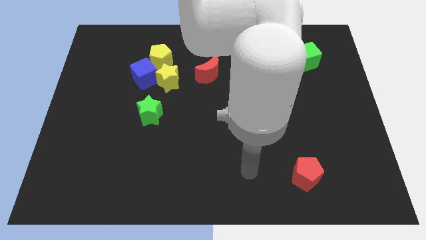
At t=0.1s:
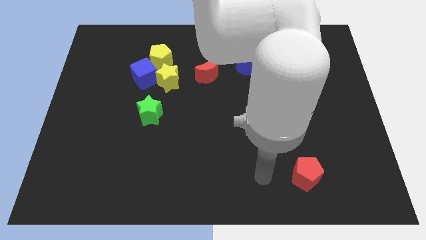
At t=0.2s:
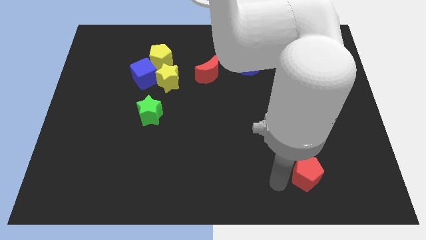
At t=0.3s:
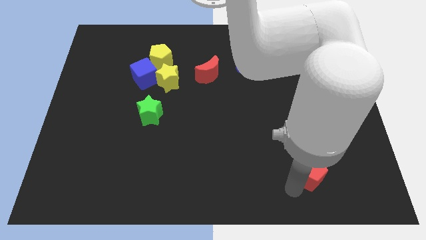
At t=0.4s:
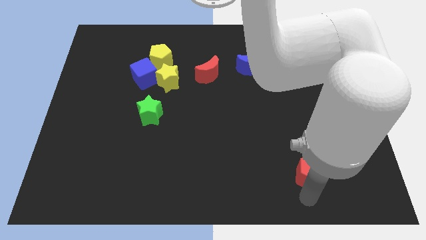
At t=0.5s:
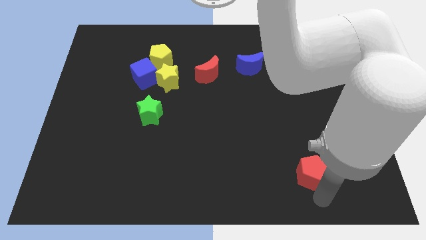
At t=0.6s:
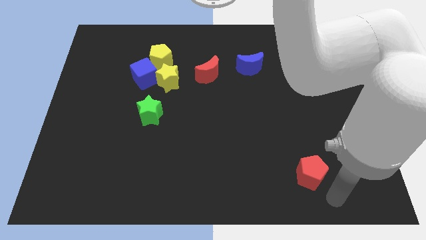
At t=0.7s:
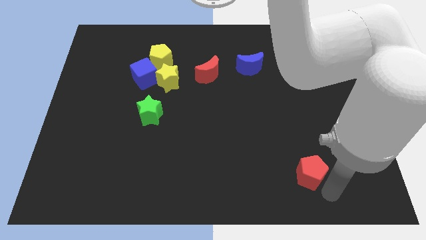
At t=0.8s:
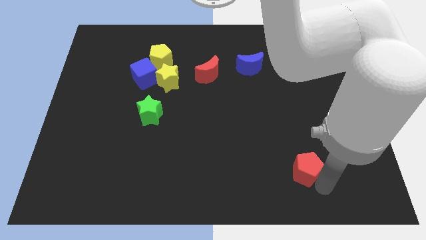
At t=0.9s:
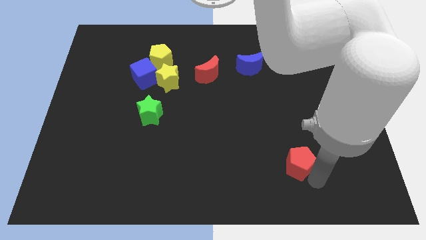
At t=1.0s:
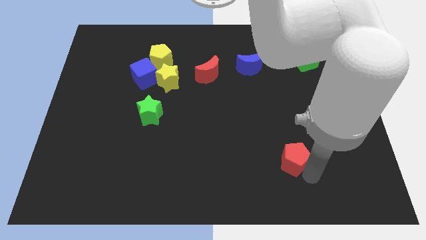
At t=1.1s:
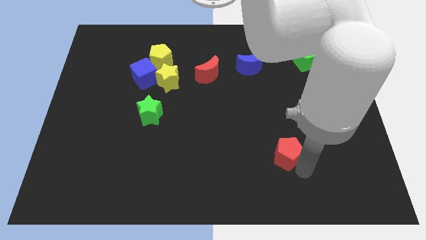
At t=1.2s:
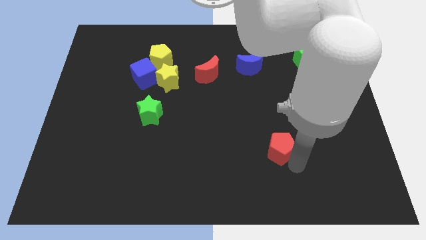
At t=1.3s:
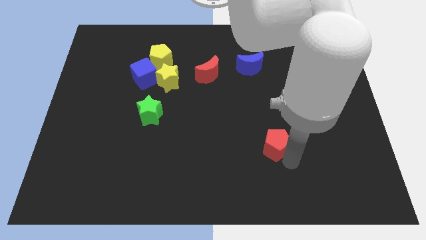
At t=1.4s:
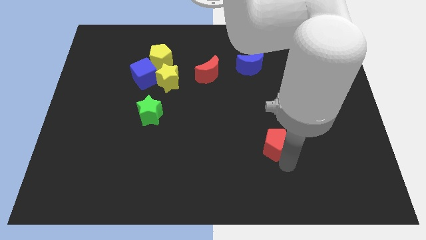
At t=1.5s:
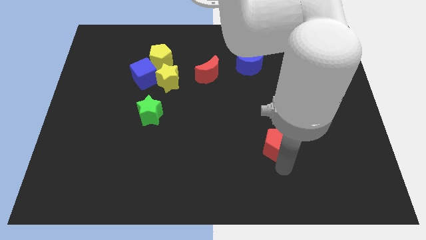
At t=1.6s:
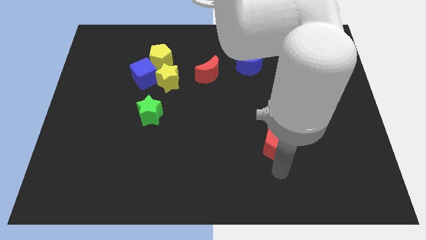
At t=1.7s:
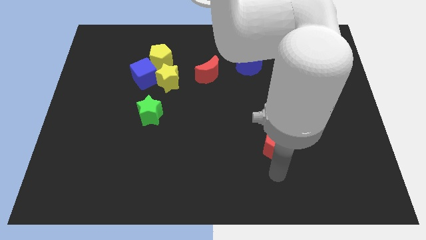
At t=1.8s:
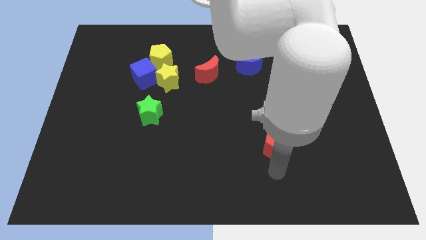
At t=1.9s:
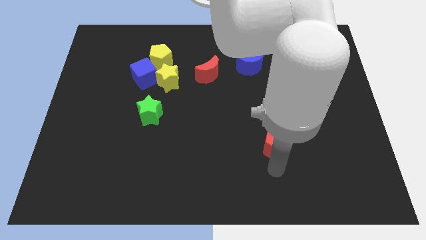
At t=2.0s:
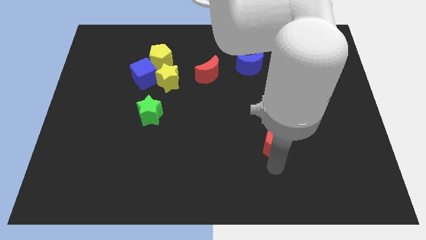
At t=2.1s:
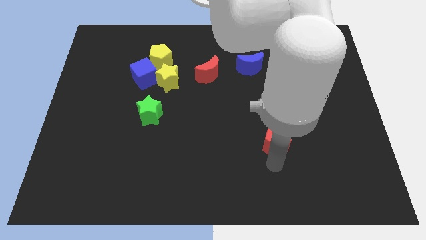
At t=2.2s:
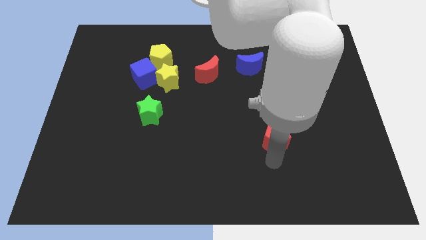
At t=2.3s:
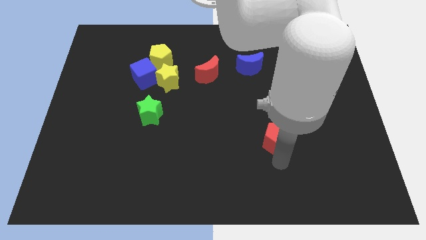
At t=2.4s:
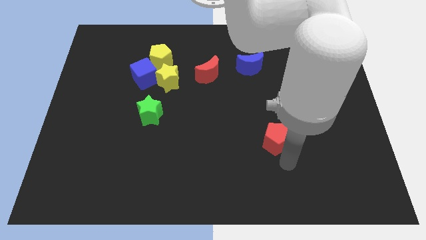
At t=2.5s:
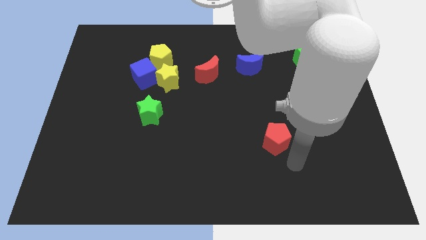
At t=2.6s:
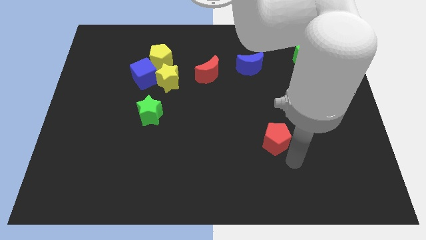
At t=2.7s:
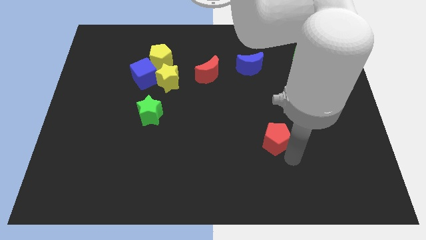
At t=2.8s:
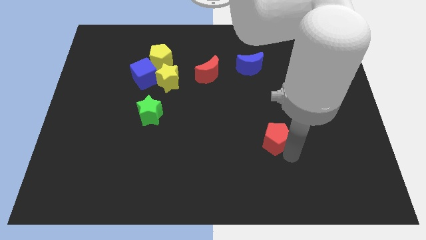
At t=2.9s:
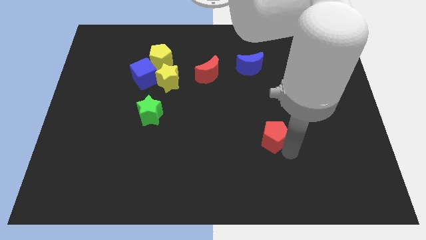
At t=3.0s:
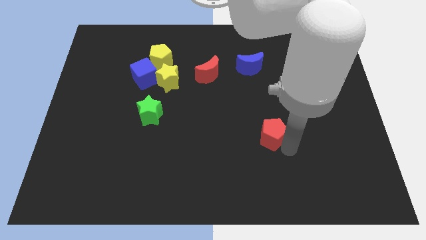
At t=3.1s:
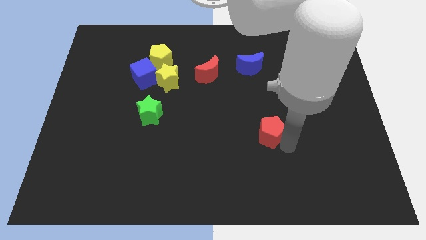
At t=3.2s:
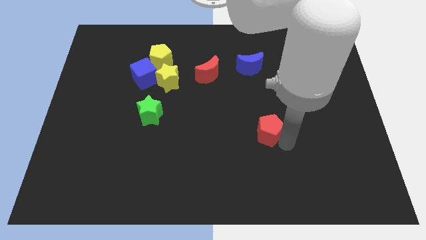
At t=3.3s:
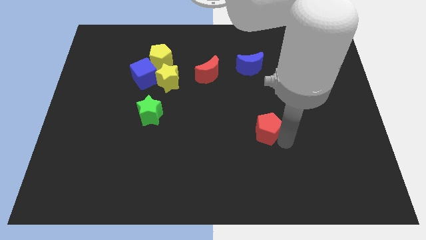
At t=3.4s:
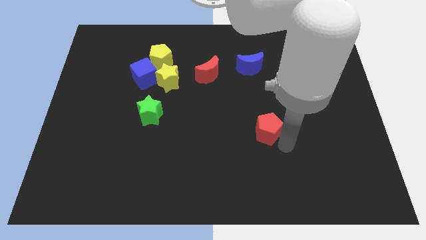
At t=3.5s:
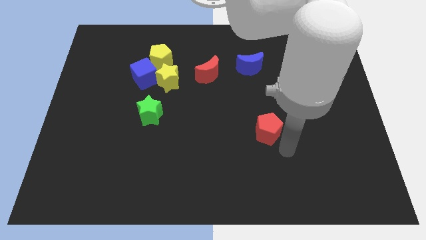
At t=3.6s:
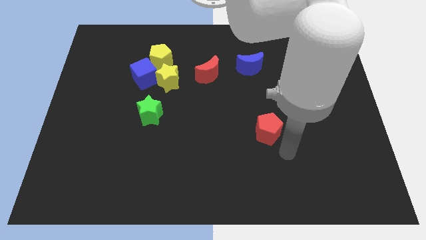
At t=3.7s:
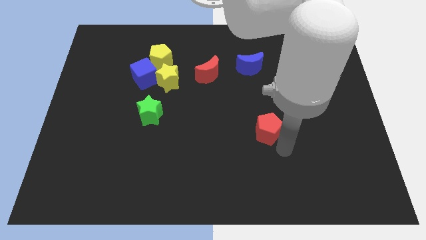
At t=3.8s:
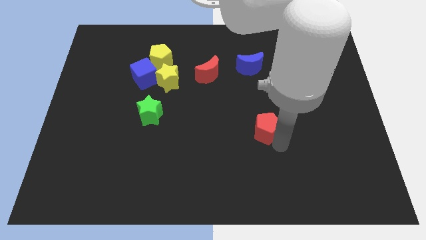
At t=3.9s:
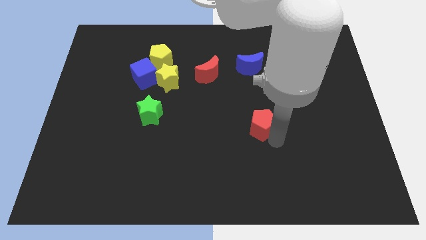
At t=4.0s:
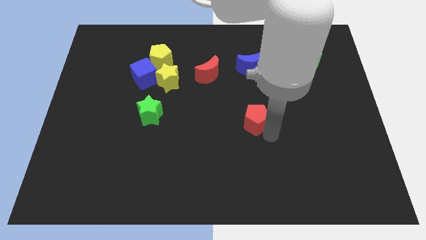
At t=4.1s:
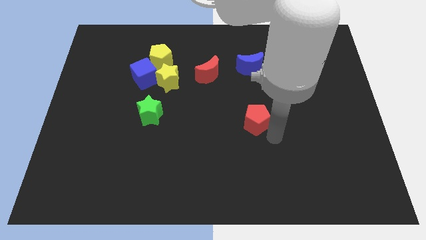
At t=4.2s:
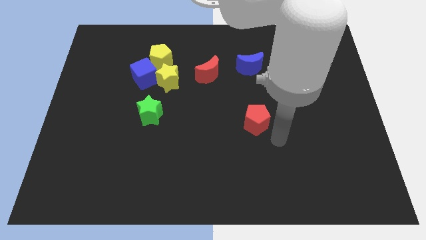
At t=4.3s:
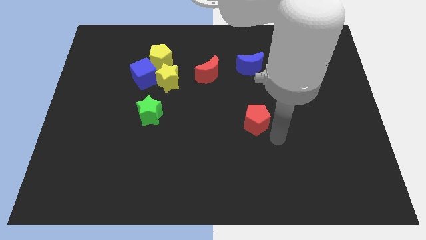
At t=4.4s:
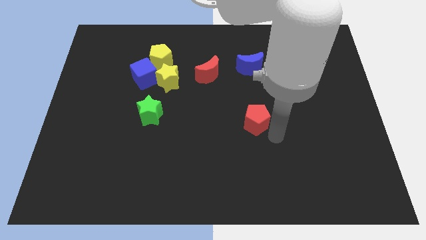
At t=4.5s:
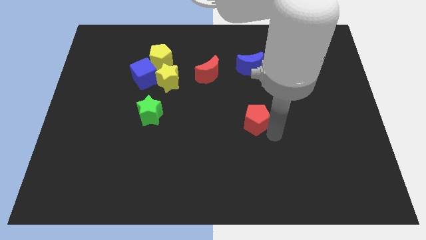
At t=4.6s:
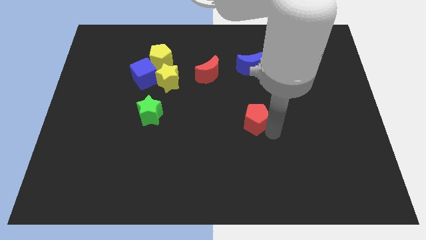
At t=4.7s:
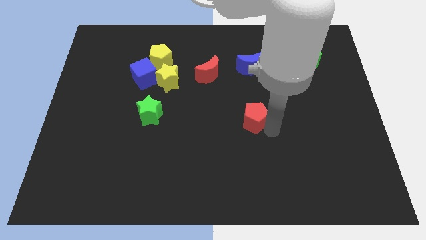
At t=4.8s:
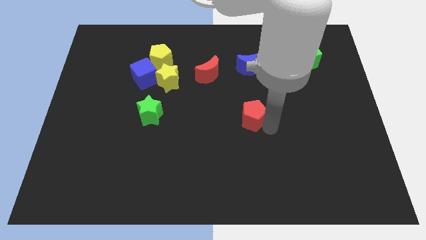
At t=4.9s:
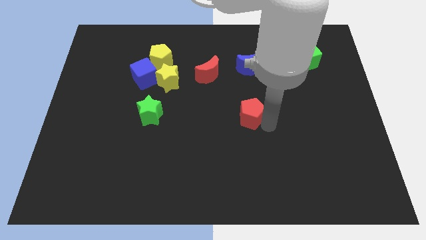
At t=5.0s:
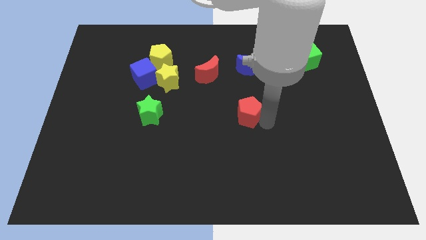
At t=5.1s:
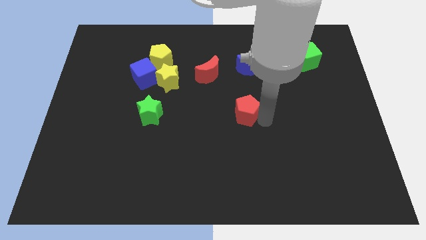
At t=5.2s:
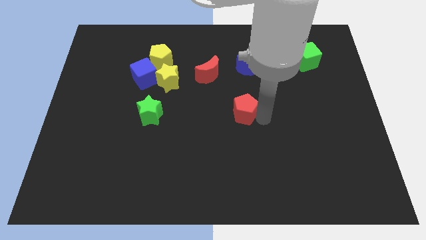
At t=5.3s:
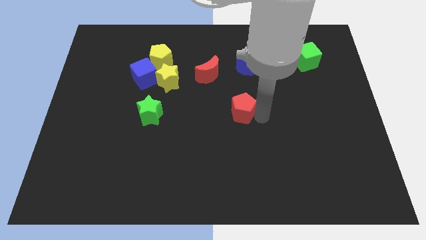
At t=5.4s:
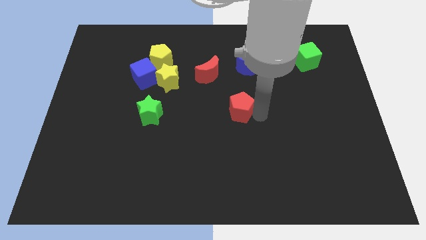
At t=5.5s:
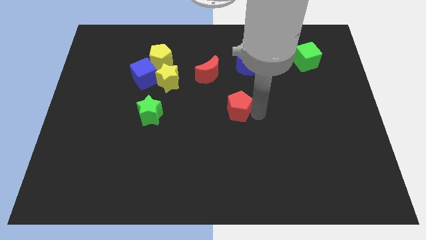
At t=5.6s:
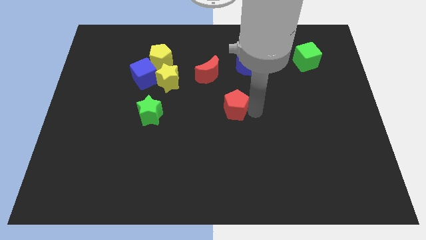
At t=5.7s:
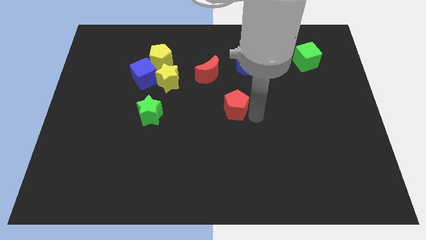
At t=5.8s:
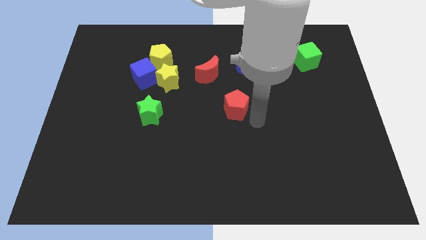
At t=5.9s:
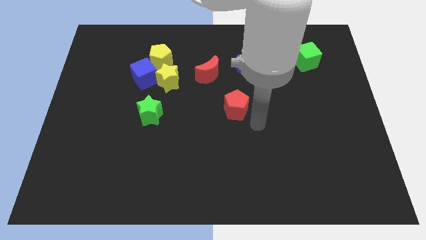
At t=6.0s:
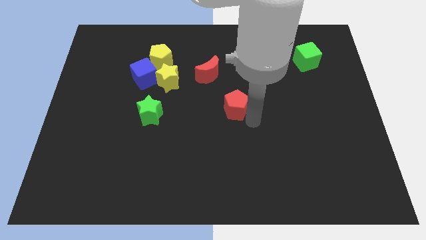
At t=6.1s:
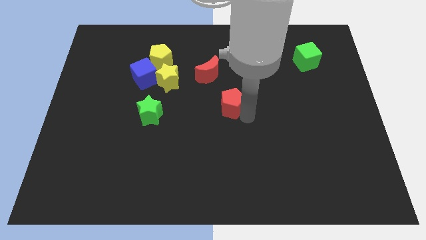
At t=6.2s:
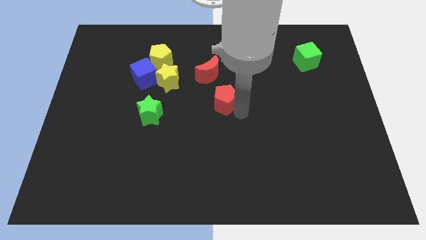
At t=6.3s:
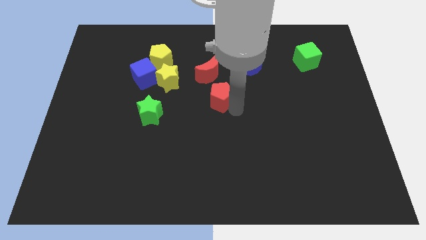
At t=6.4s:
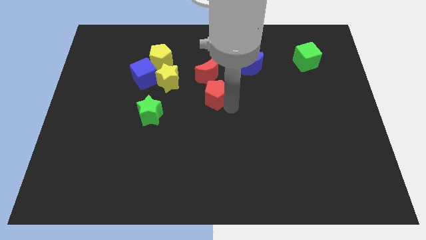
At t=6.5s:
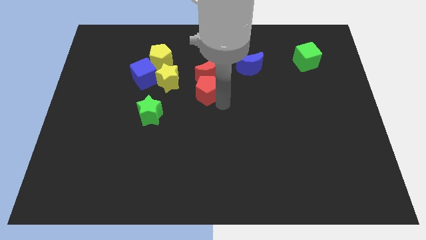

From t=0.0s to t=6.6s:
move the red pentagon to the red moon

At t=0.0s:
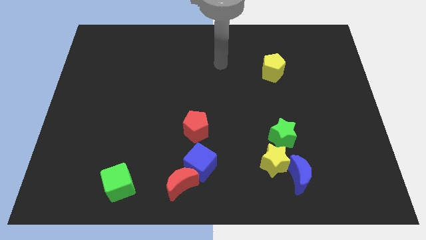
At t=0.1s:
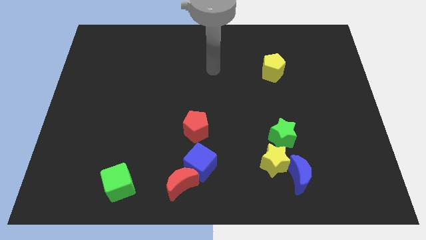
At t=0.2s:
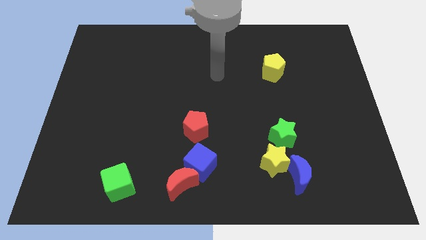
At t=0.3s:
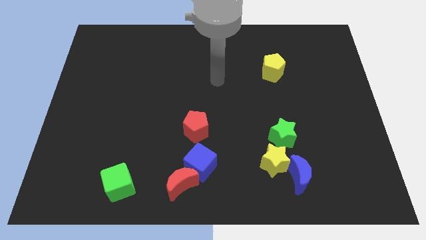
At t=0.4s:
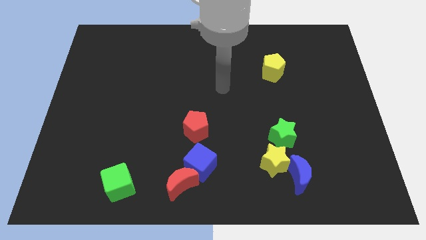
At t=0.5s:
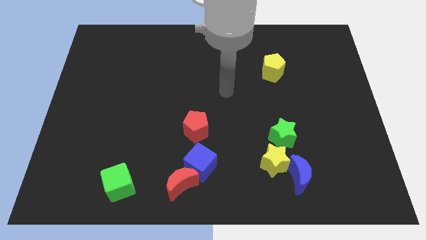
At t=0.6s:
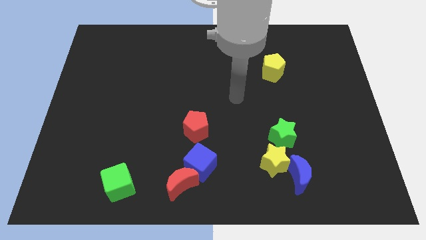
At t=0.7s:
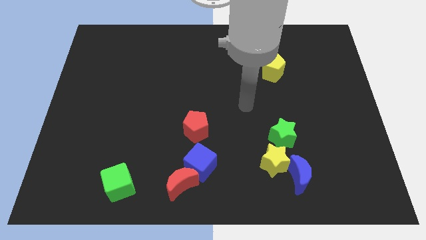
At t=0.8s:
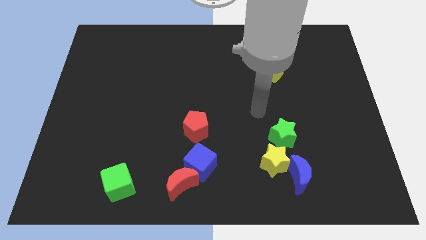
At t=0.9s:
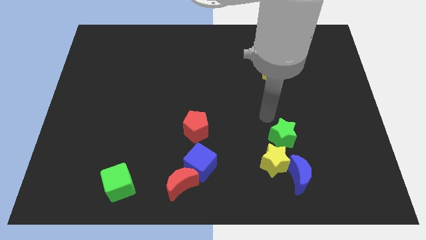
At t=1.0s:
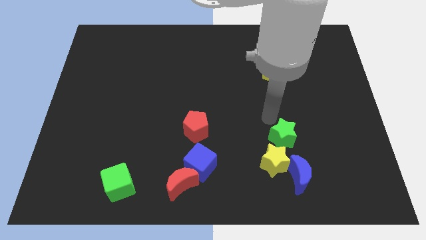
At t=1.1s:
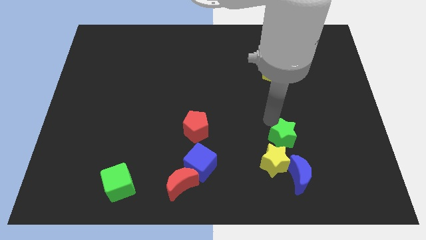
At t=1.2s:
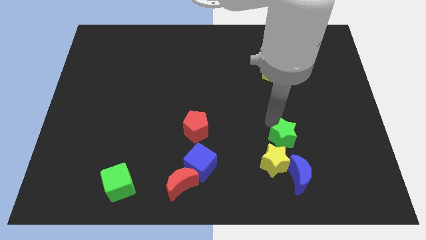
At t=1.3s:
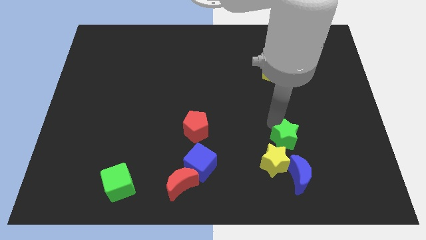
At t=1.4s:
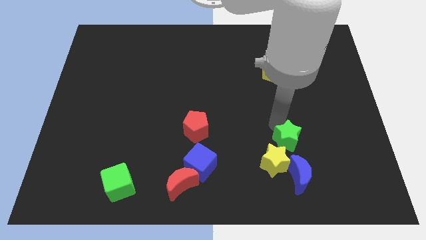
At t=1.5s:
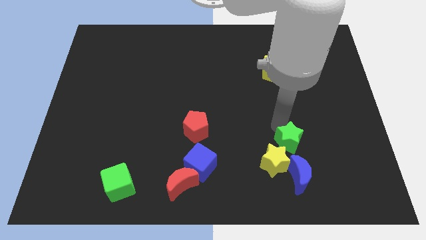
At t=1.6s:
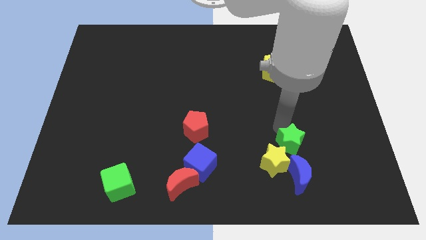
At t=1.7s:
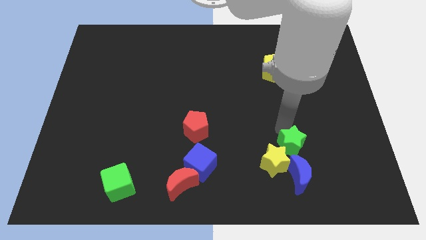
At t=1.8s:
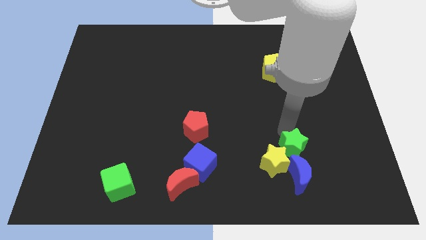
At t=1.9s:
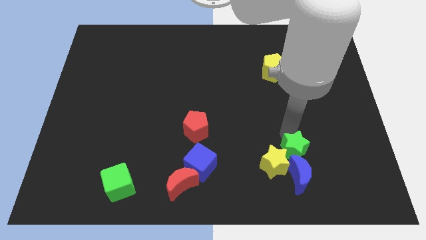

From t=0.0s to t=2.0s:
move the green star towards the blue moon
